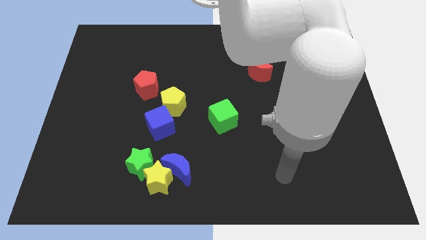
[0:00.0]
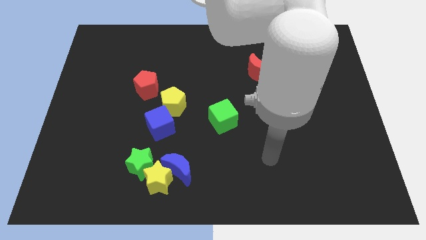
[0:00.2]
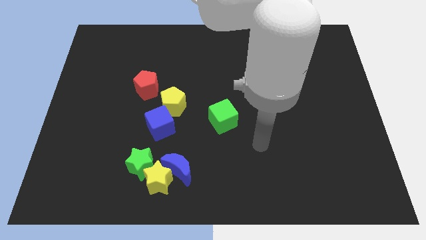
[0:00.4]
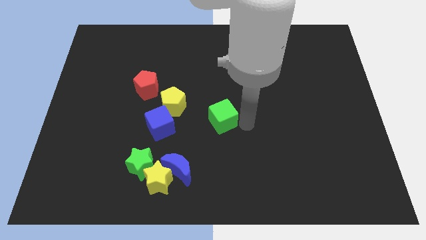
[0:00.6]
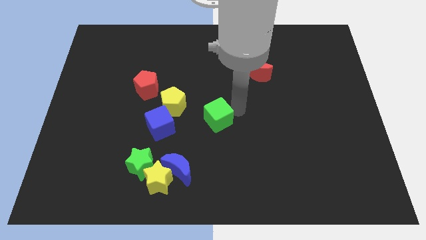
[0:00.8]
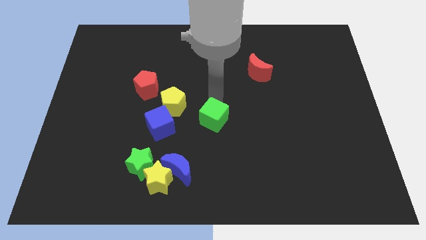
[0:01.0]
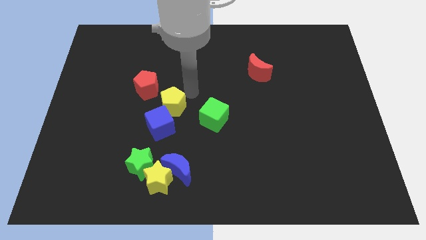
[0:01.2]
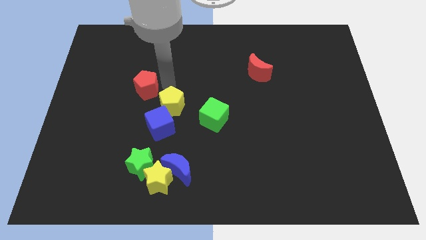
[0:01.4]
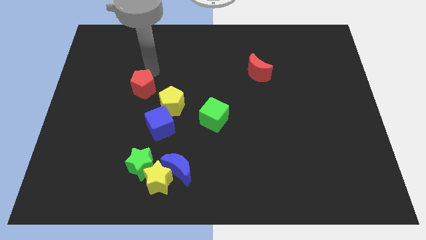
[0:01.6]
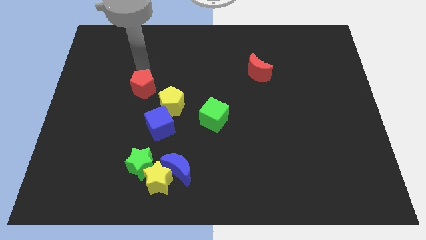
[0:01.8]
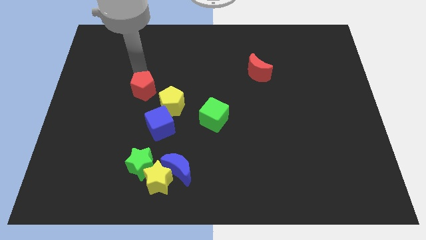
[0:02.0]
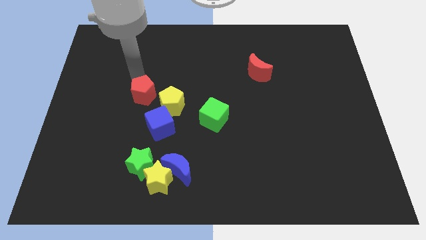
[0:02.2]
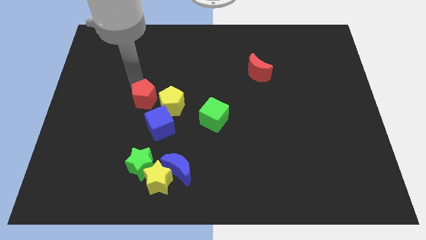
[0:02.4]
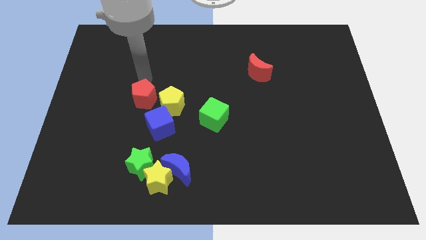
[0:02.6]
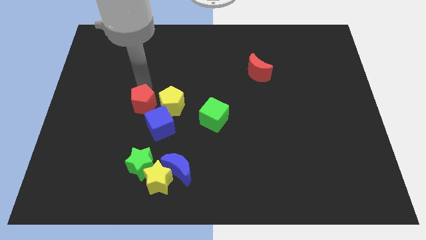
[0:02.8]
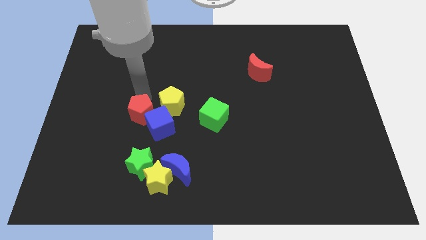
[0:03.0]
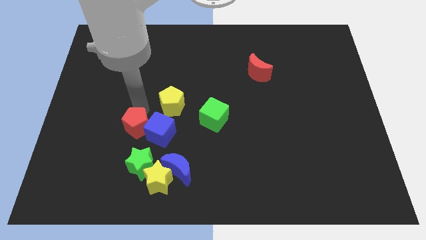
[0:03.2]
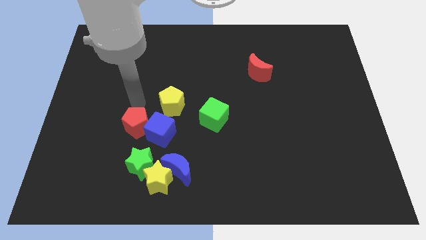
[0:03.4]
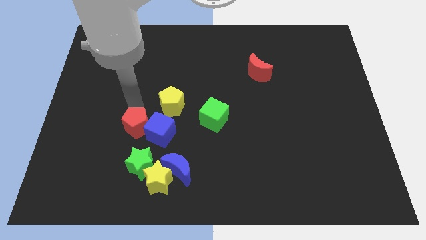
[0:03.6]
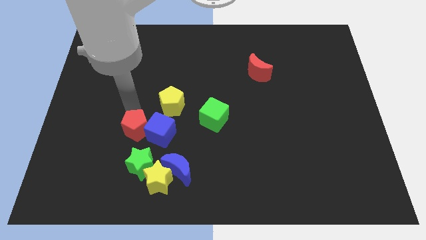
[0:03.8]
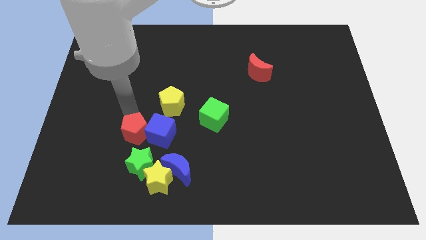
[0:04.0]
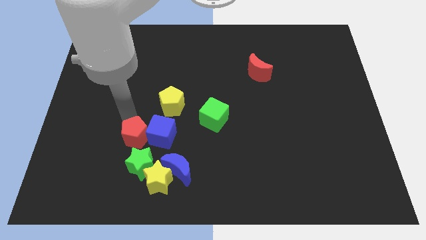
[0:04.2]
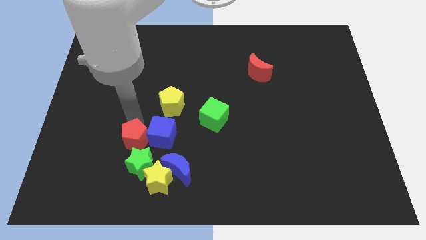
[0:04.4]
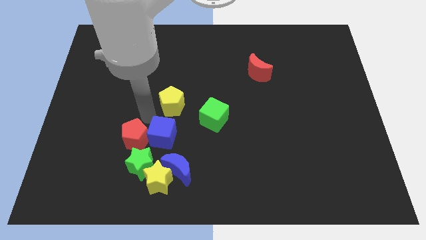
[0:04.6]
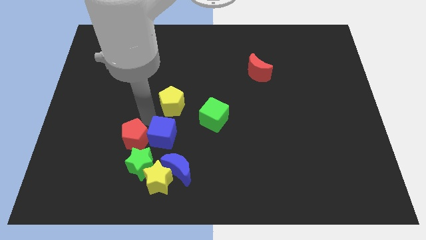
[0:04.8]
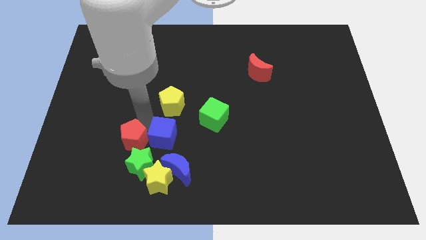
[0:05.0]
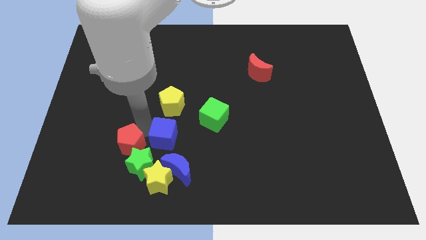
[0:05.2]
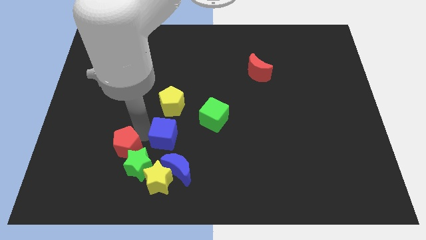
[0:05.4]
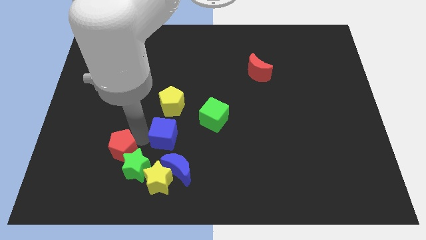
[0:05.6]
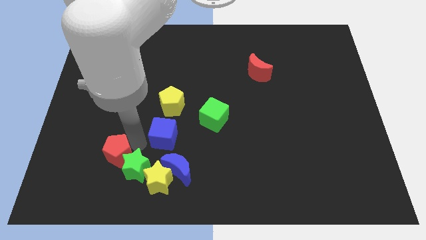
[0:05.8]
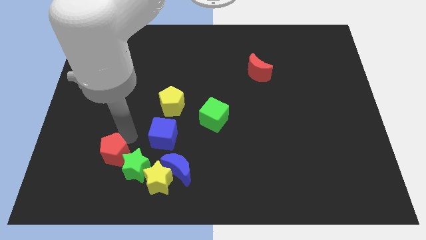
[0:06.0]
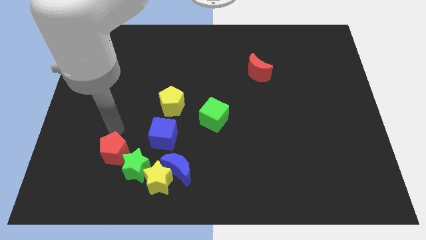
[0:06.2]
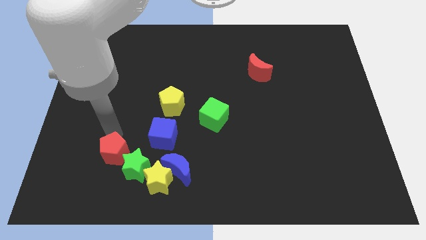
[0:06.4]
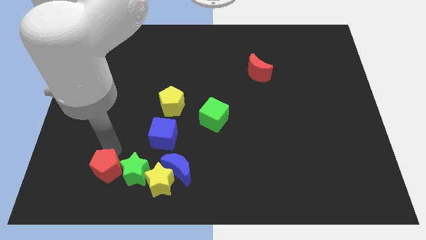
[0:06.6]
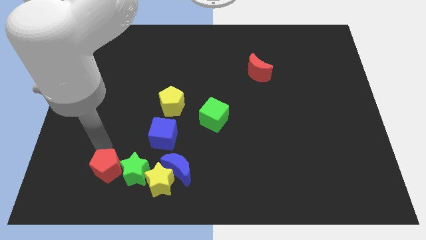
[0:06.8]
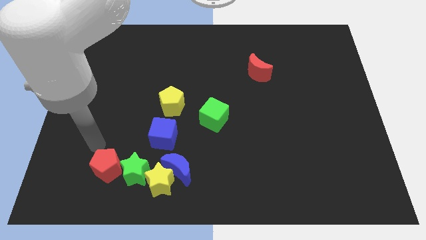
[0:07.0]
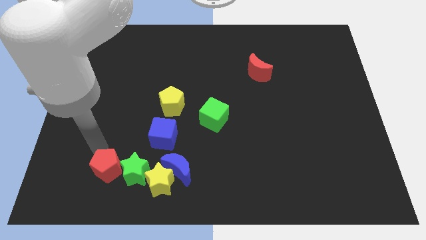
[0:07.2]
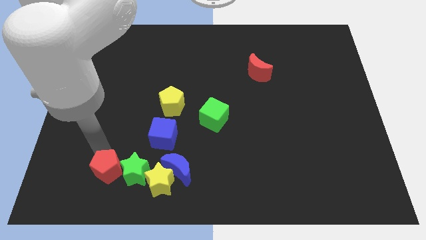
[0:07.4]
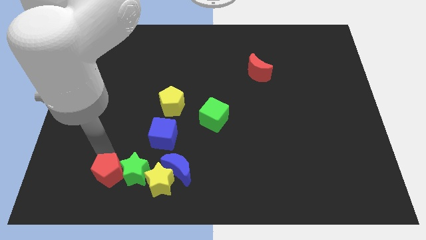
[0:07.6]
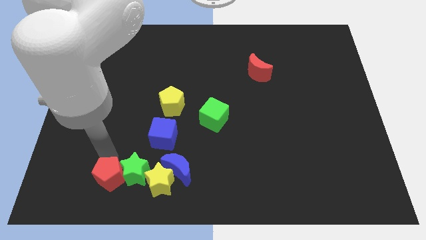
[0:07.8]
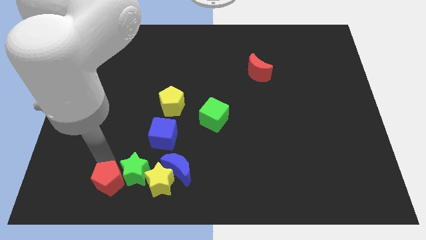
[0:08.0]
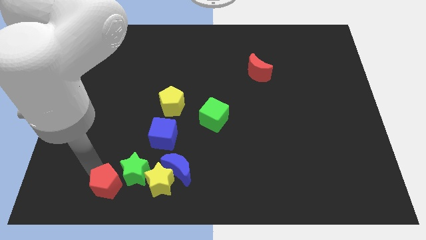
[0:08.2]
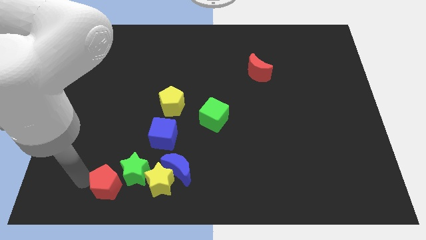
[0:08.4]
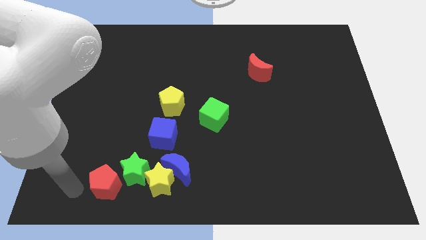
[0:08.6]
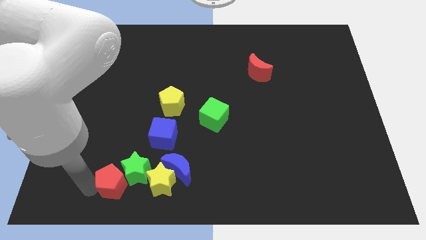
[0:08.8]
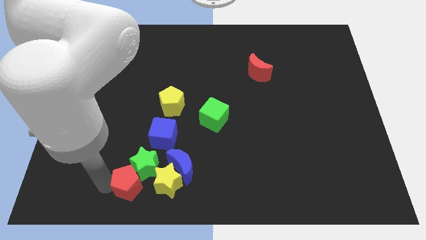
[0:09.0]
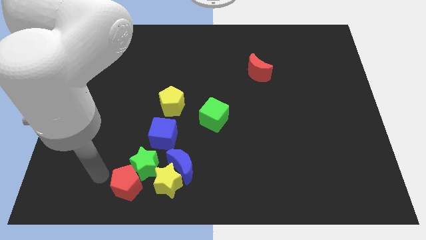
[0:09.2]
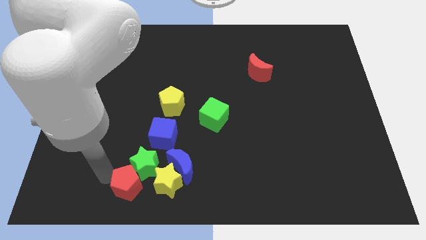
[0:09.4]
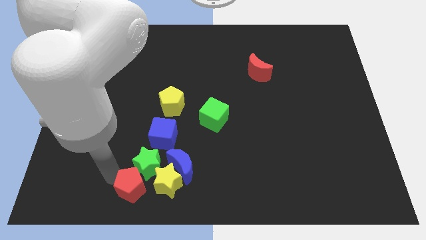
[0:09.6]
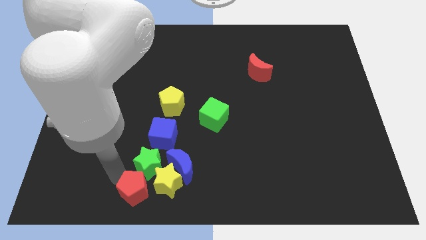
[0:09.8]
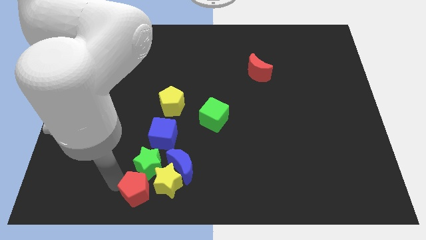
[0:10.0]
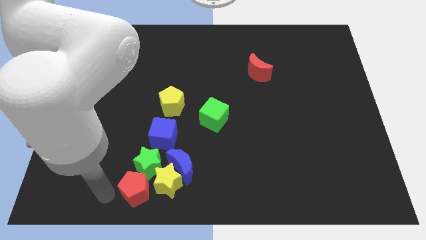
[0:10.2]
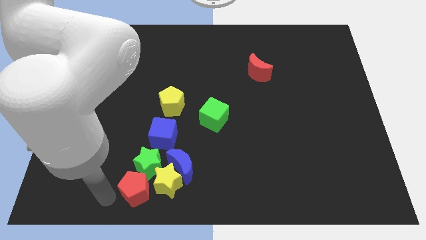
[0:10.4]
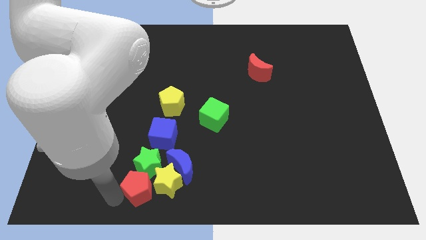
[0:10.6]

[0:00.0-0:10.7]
move the red pentagon towards the yellow star

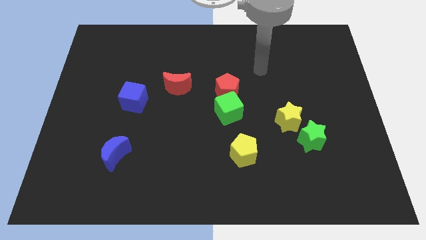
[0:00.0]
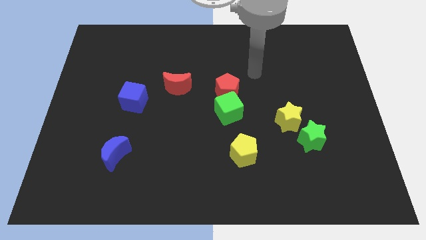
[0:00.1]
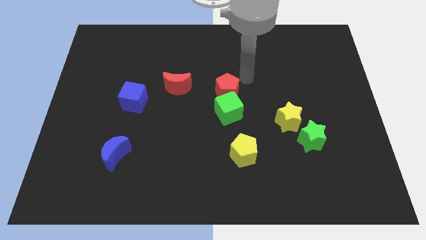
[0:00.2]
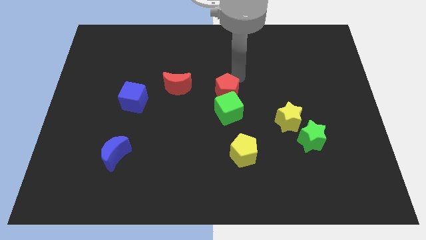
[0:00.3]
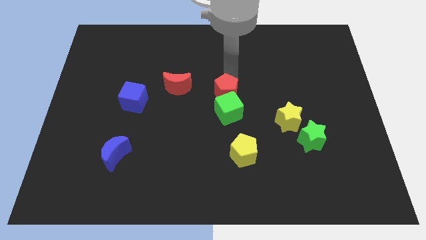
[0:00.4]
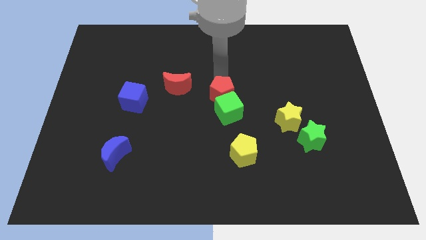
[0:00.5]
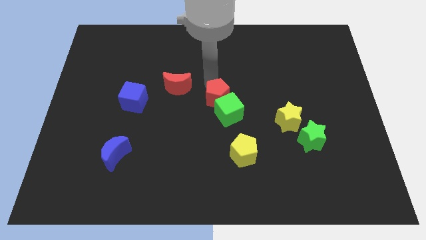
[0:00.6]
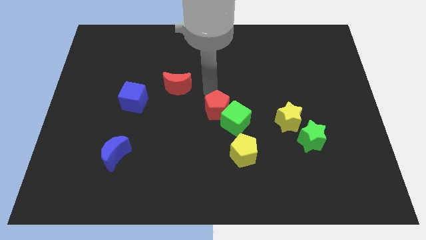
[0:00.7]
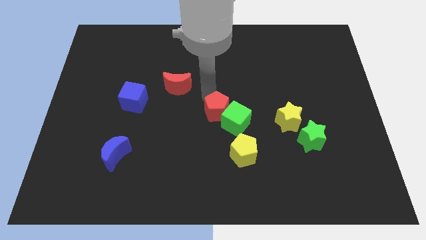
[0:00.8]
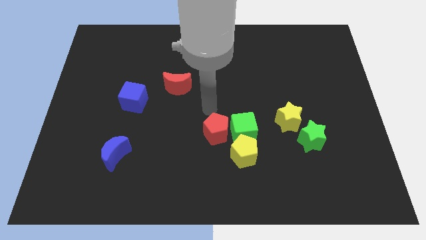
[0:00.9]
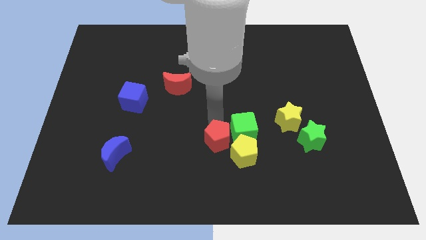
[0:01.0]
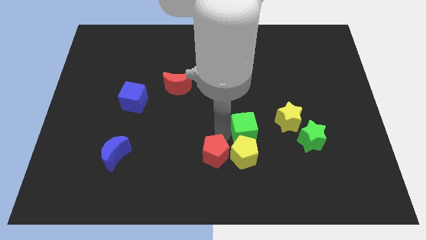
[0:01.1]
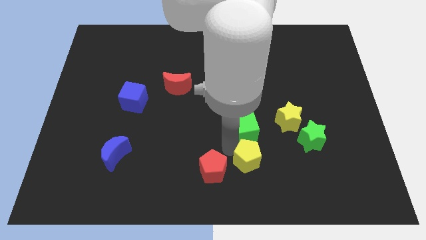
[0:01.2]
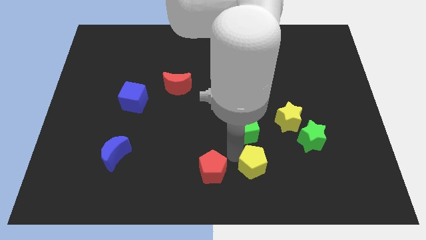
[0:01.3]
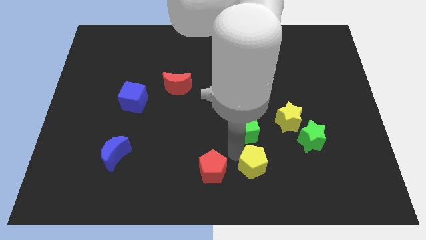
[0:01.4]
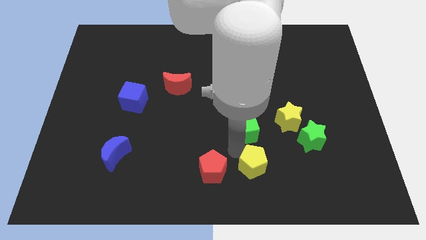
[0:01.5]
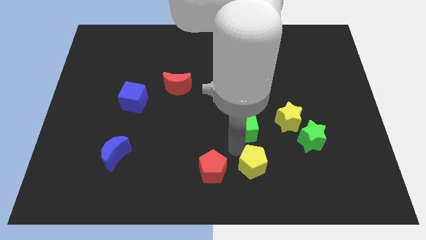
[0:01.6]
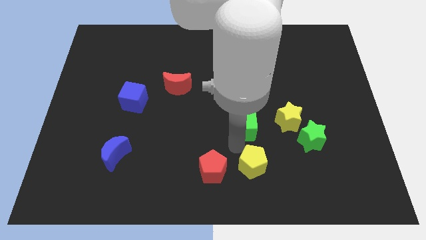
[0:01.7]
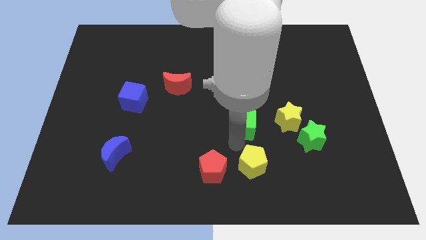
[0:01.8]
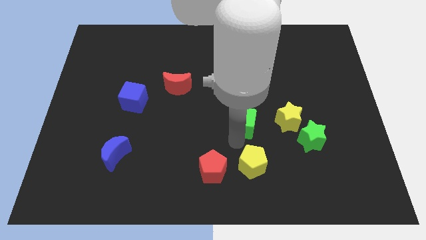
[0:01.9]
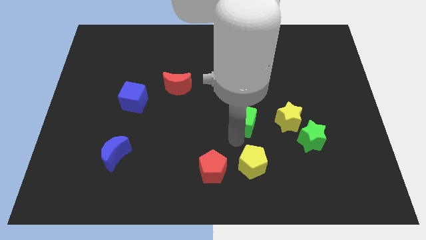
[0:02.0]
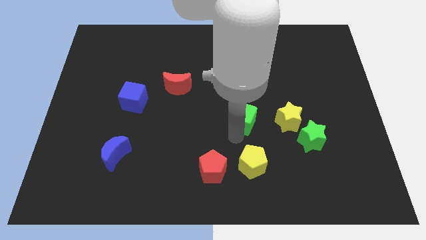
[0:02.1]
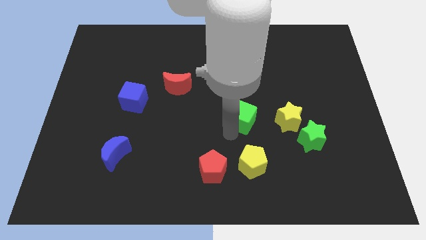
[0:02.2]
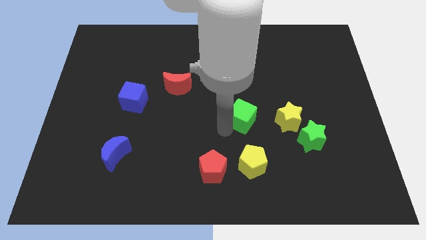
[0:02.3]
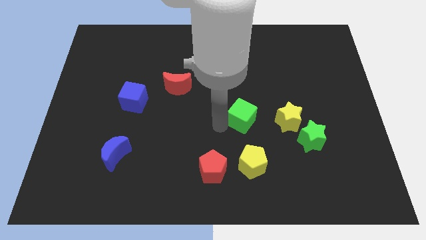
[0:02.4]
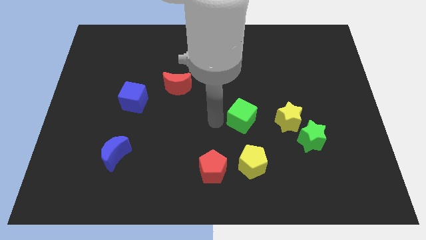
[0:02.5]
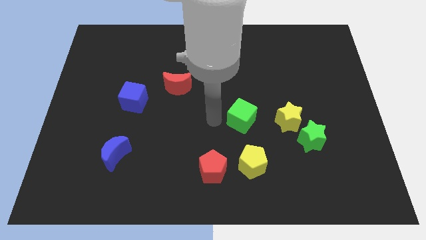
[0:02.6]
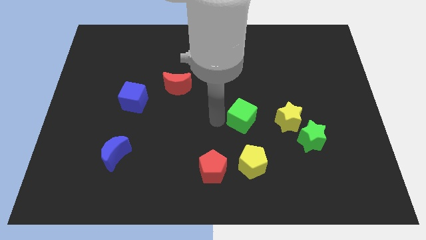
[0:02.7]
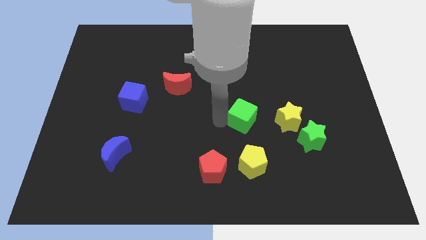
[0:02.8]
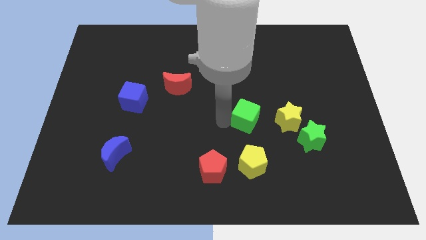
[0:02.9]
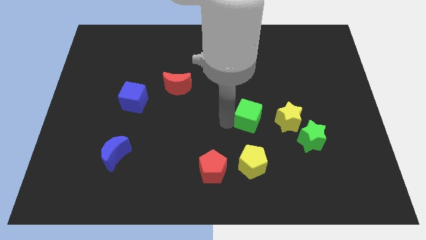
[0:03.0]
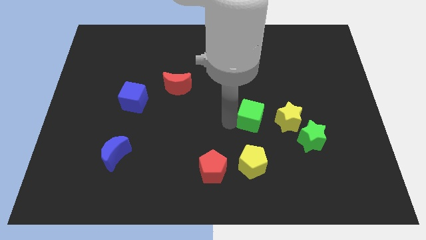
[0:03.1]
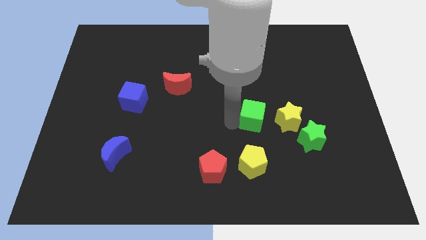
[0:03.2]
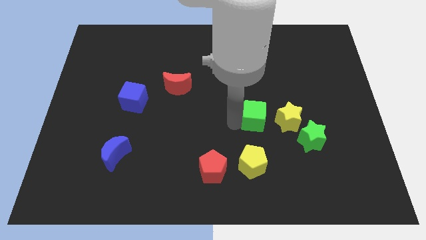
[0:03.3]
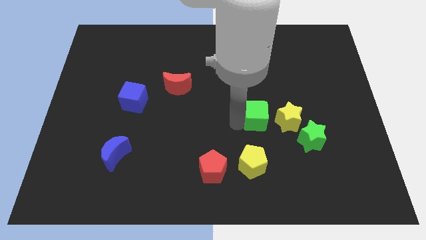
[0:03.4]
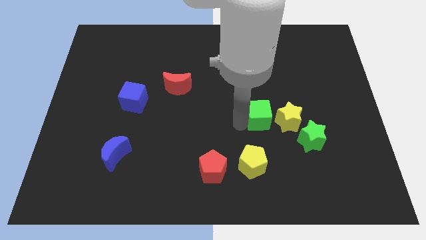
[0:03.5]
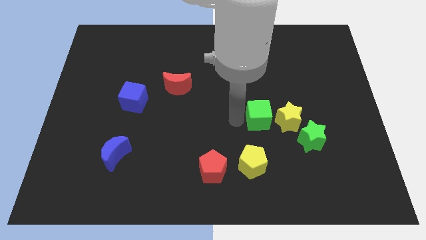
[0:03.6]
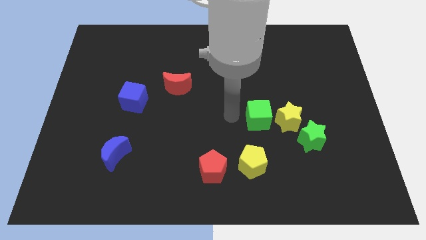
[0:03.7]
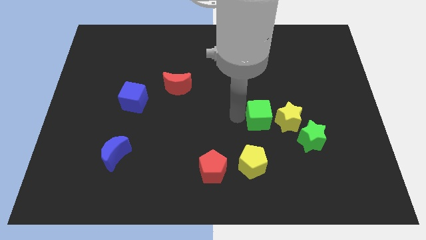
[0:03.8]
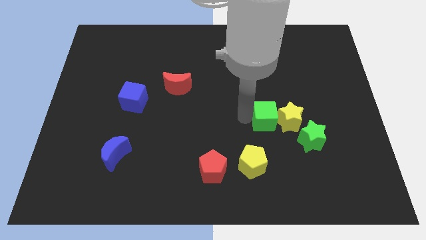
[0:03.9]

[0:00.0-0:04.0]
move the green cube close to the yellow star
